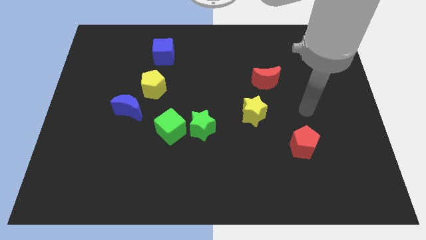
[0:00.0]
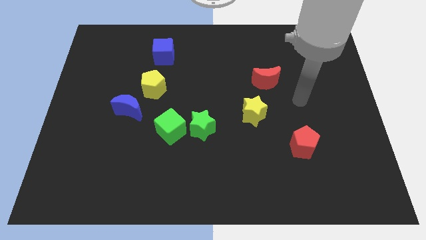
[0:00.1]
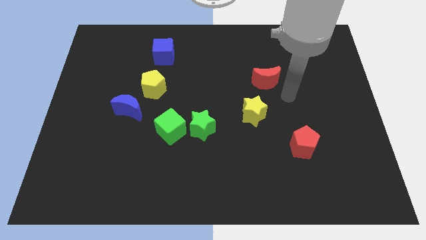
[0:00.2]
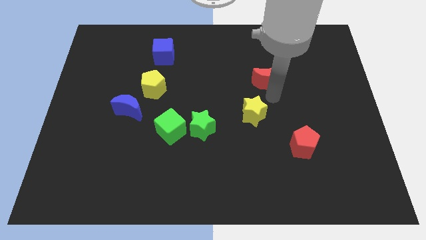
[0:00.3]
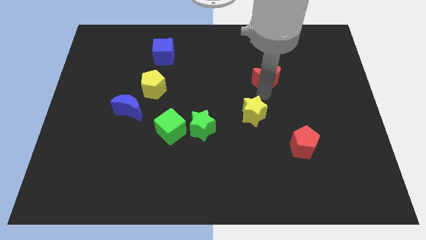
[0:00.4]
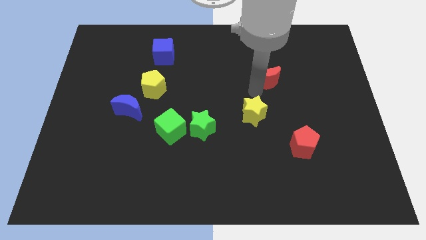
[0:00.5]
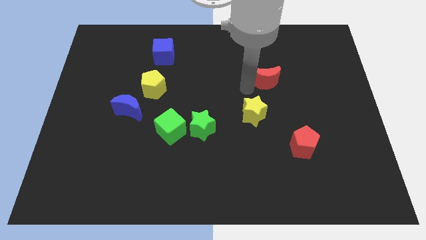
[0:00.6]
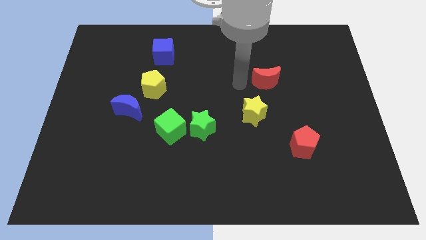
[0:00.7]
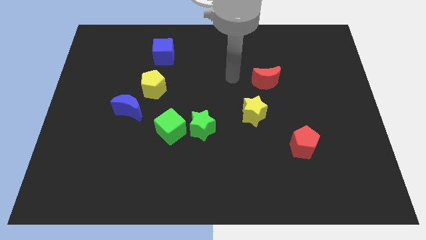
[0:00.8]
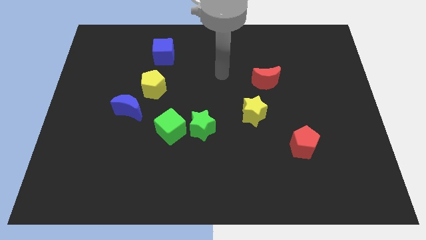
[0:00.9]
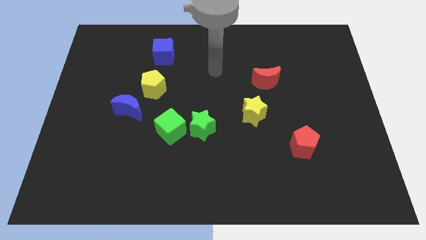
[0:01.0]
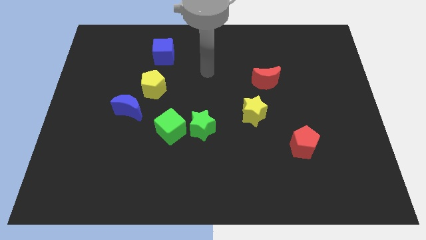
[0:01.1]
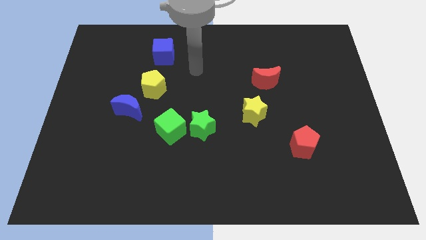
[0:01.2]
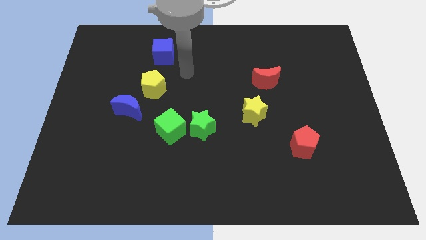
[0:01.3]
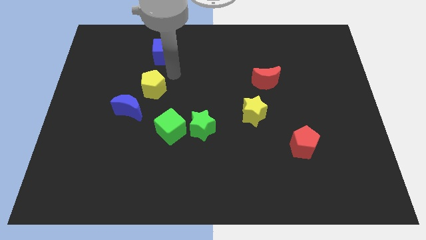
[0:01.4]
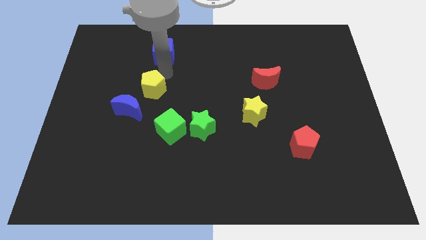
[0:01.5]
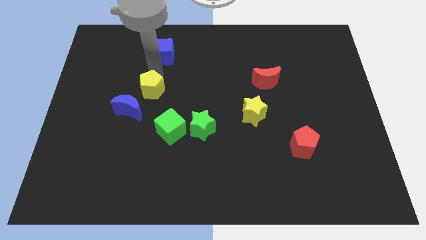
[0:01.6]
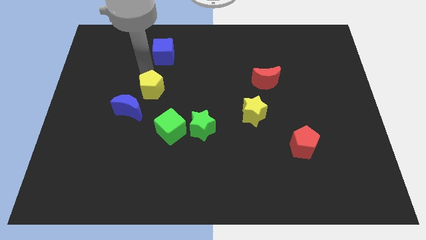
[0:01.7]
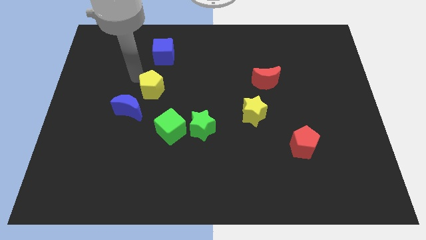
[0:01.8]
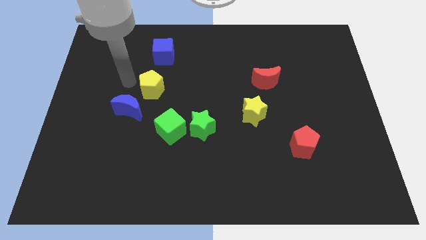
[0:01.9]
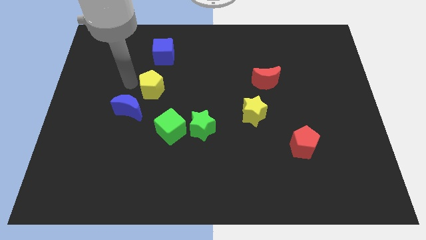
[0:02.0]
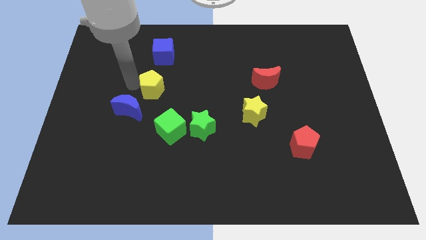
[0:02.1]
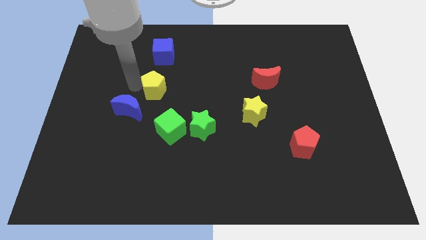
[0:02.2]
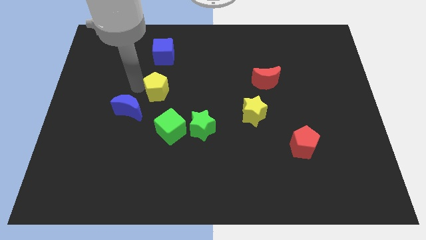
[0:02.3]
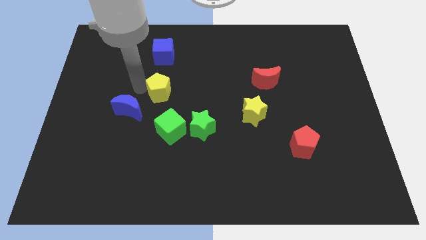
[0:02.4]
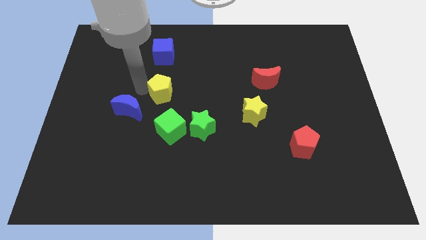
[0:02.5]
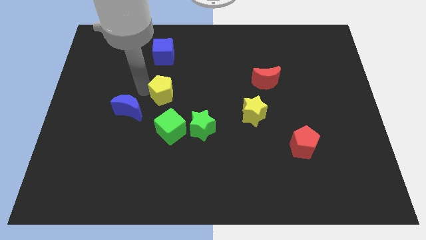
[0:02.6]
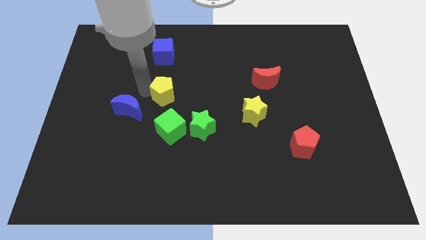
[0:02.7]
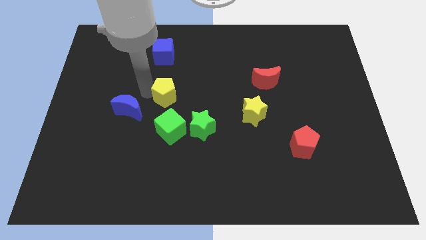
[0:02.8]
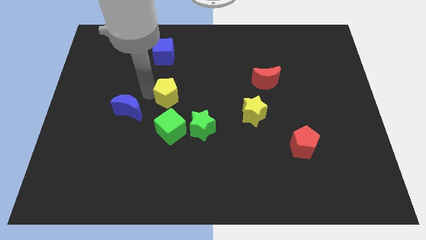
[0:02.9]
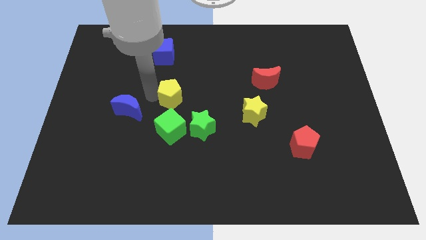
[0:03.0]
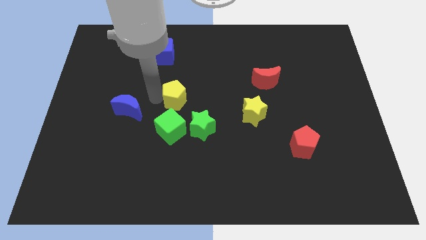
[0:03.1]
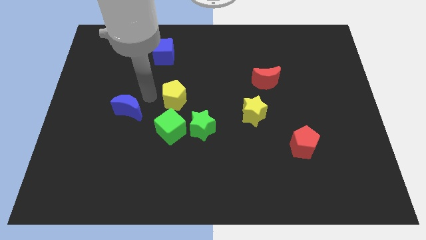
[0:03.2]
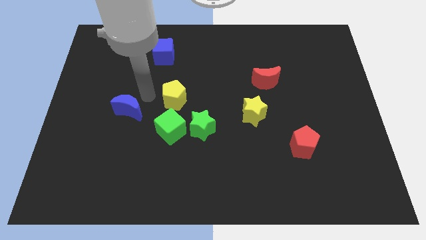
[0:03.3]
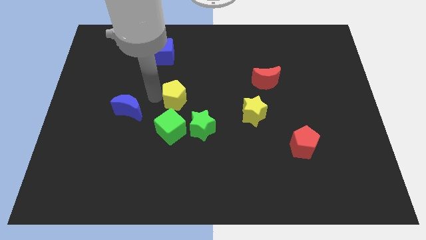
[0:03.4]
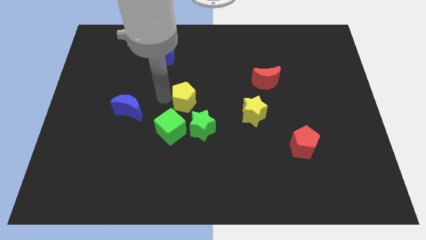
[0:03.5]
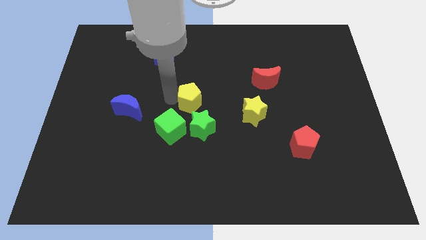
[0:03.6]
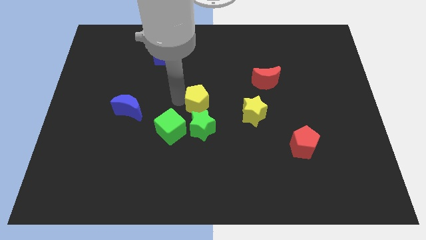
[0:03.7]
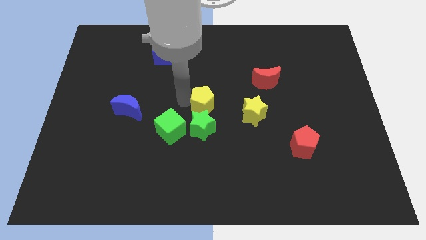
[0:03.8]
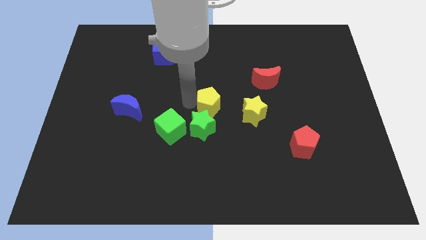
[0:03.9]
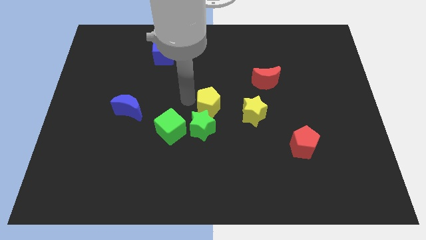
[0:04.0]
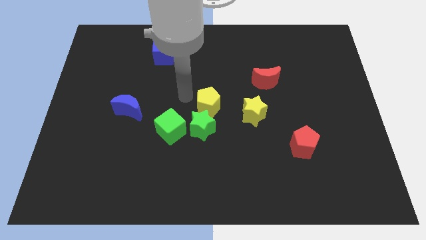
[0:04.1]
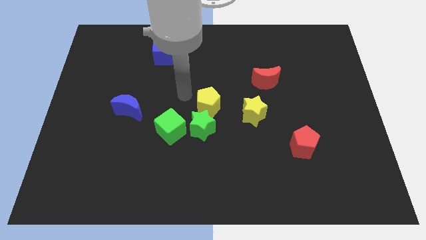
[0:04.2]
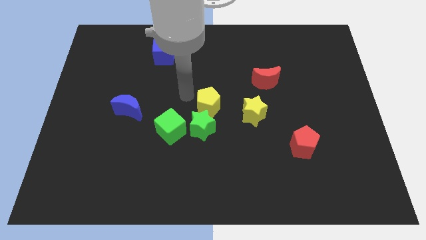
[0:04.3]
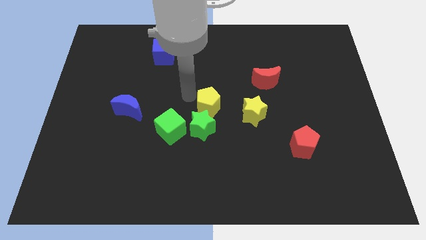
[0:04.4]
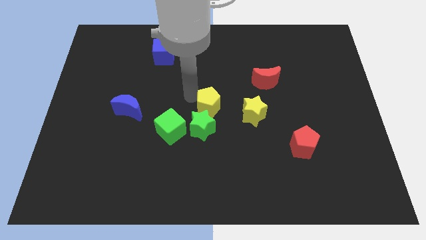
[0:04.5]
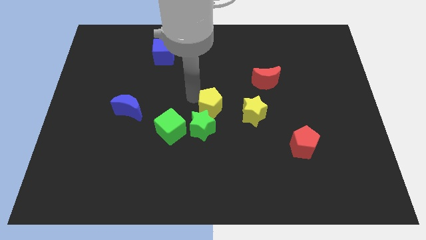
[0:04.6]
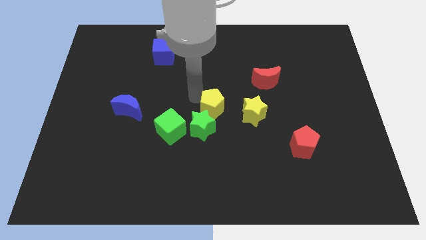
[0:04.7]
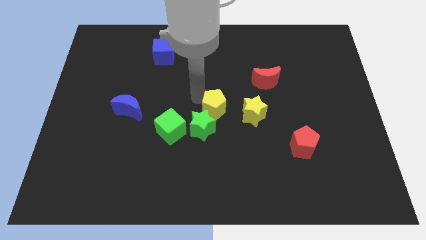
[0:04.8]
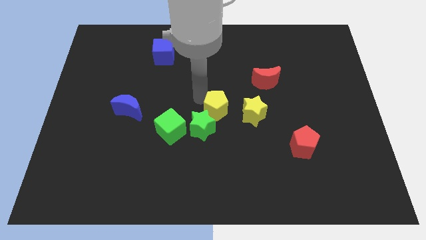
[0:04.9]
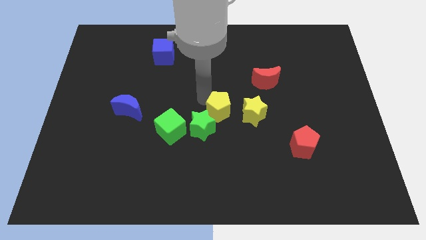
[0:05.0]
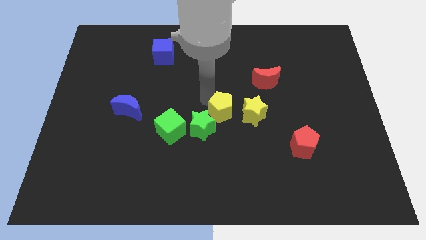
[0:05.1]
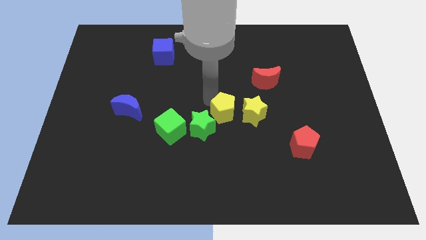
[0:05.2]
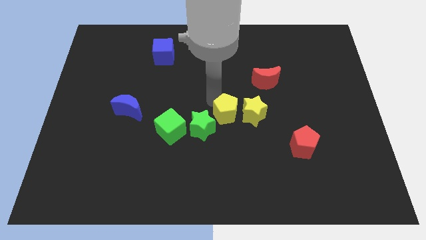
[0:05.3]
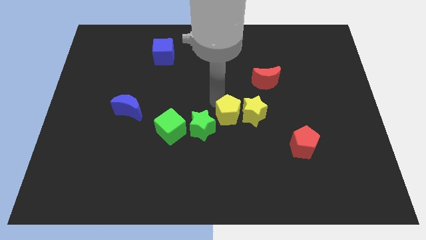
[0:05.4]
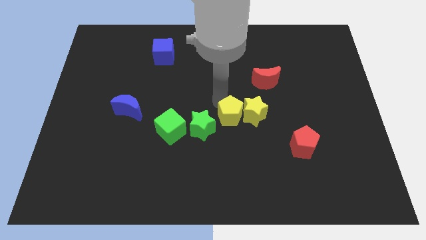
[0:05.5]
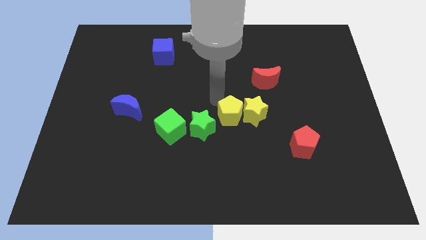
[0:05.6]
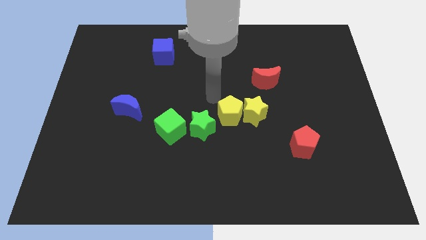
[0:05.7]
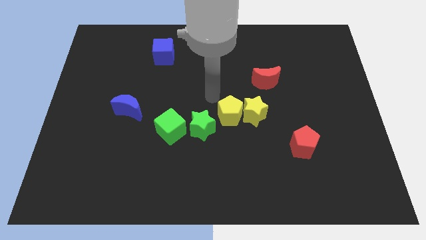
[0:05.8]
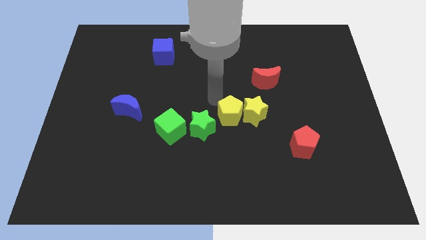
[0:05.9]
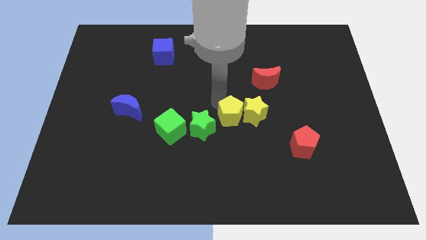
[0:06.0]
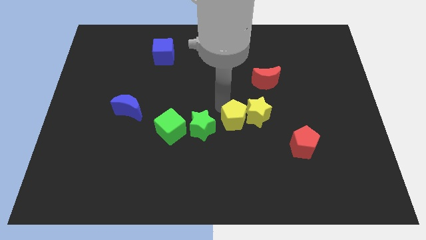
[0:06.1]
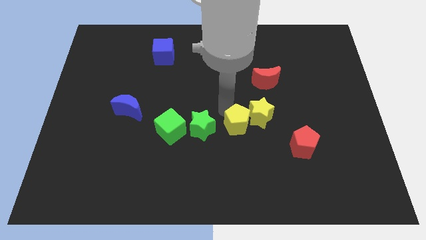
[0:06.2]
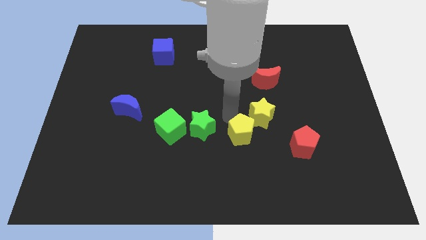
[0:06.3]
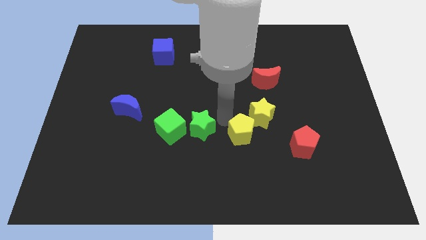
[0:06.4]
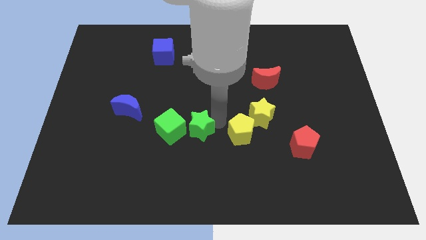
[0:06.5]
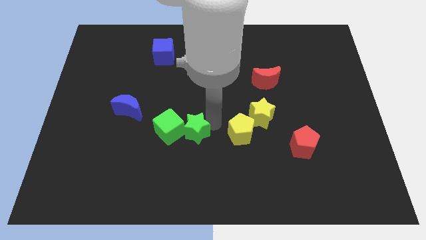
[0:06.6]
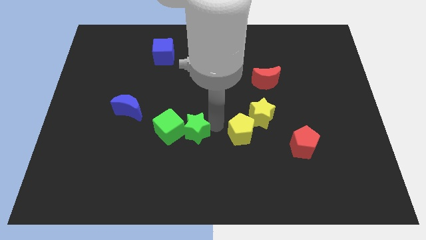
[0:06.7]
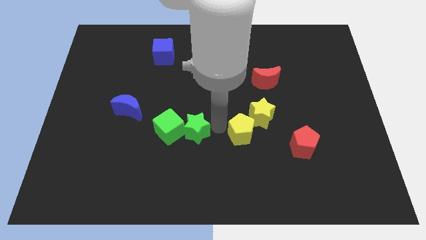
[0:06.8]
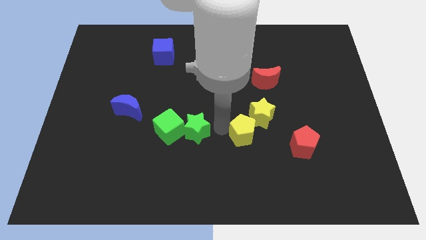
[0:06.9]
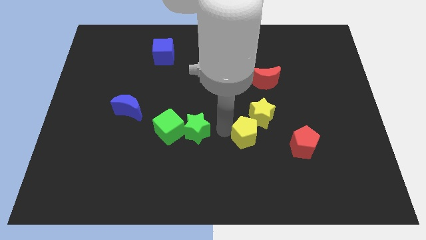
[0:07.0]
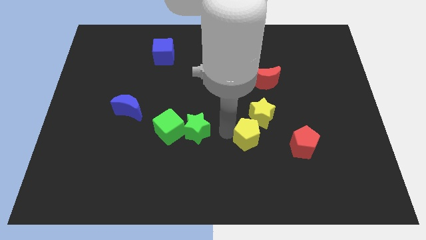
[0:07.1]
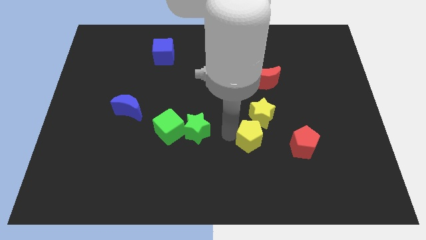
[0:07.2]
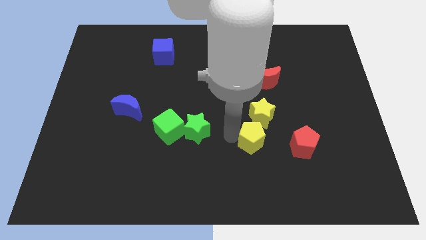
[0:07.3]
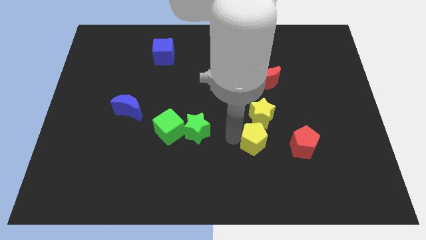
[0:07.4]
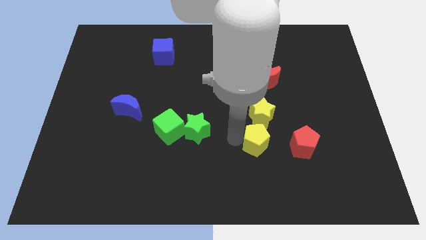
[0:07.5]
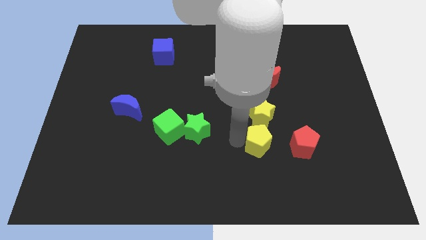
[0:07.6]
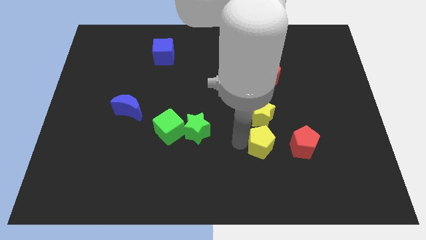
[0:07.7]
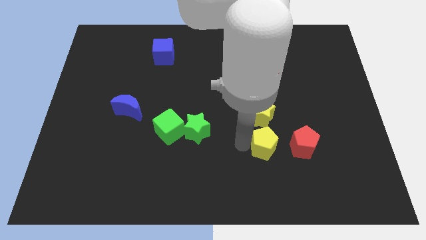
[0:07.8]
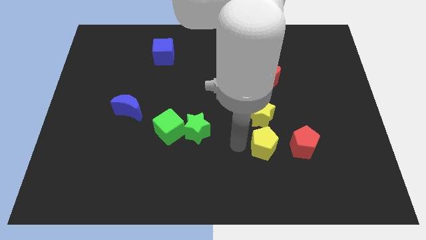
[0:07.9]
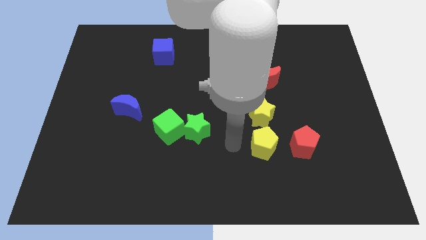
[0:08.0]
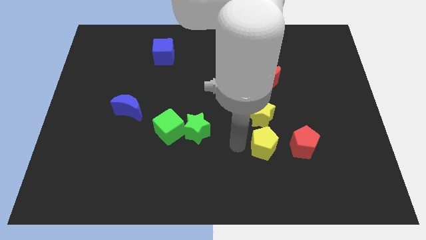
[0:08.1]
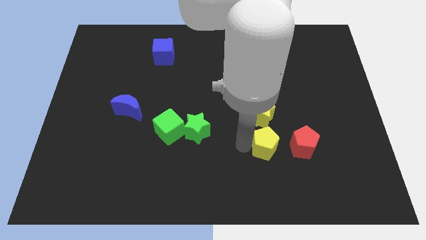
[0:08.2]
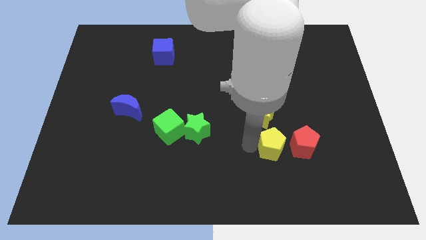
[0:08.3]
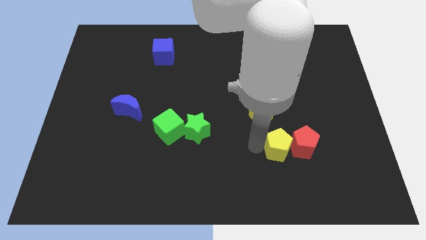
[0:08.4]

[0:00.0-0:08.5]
move the yellow pentagon to the red pentagon
